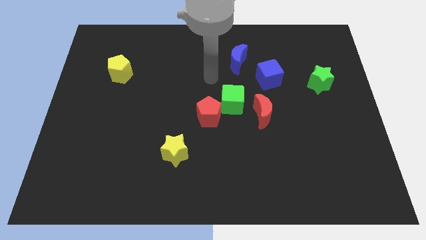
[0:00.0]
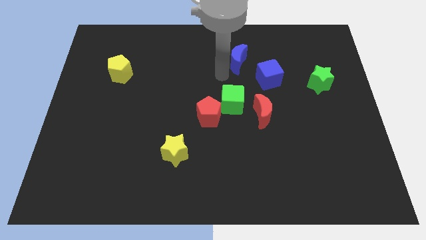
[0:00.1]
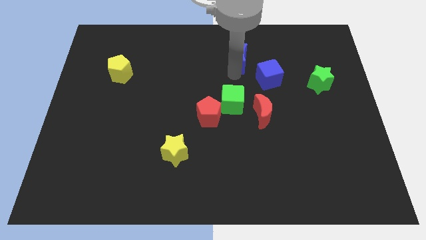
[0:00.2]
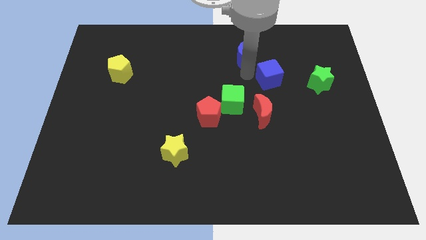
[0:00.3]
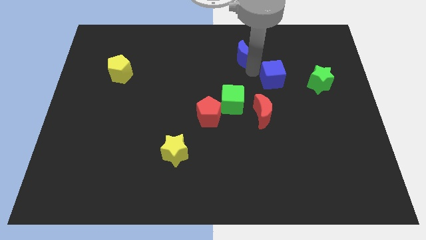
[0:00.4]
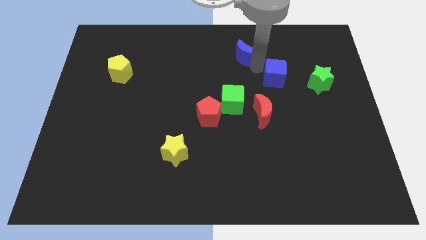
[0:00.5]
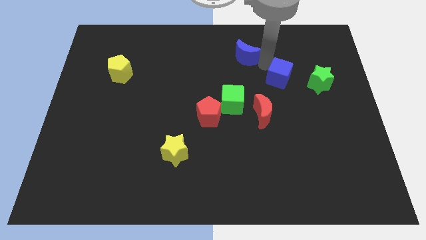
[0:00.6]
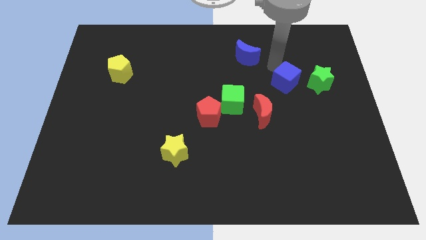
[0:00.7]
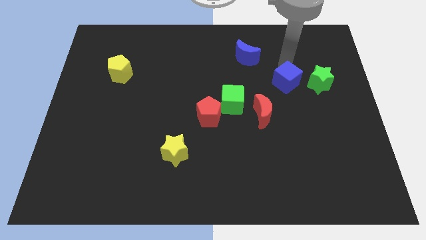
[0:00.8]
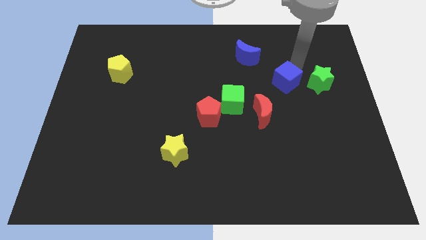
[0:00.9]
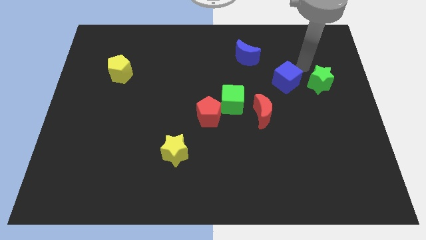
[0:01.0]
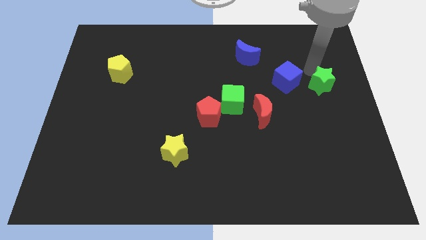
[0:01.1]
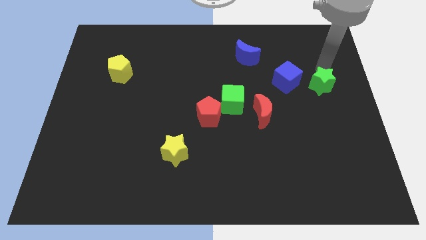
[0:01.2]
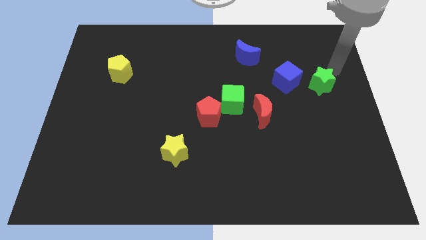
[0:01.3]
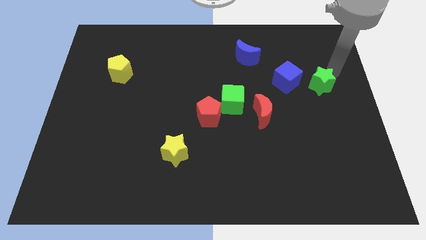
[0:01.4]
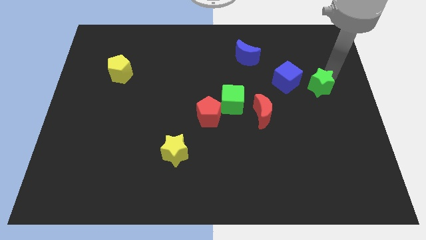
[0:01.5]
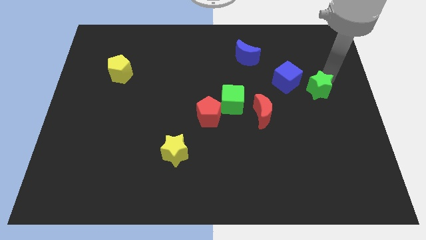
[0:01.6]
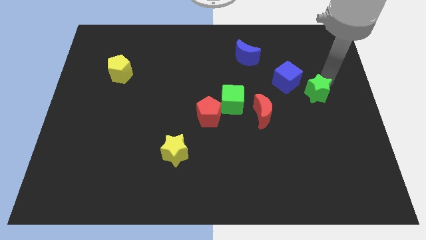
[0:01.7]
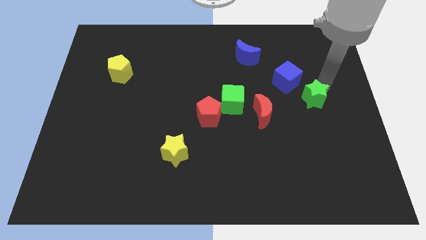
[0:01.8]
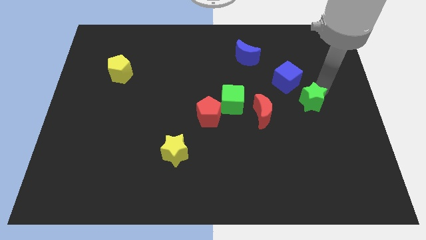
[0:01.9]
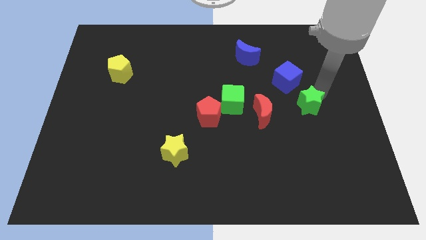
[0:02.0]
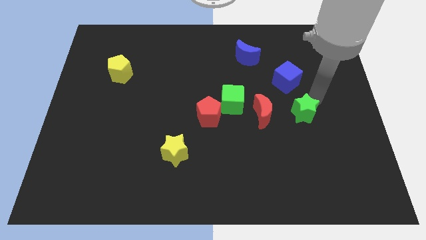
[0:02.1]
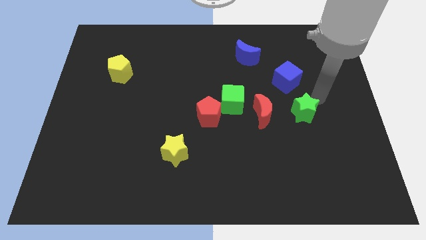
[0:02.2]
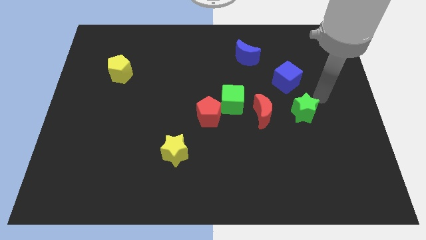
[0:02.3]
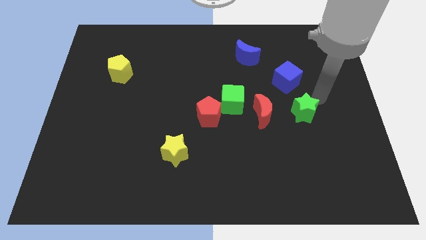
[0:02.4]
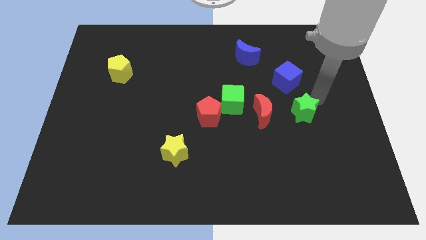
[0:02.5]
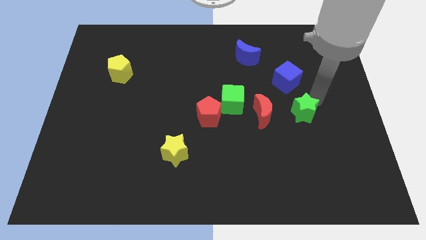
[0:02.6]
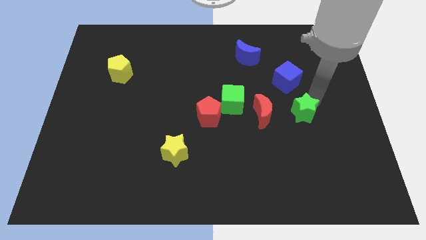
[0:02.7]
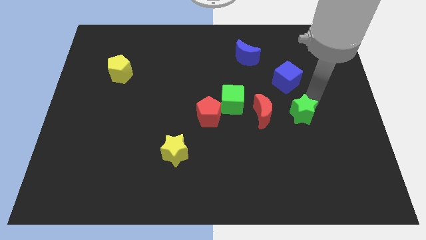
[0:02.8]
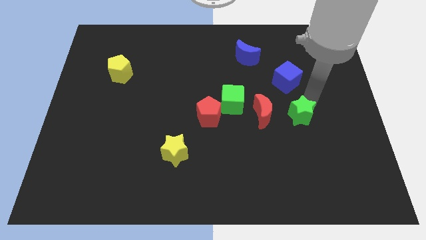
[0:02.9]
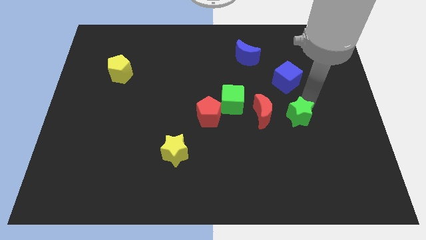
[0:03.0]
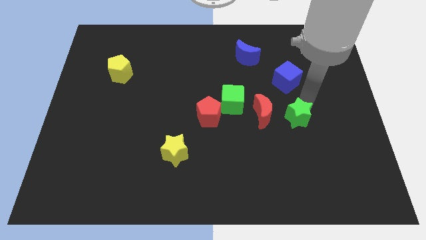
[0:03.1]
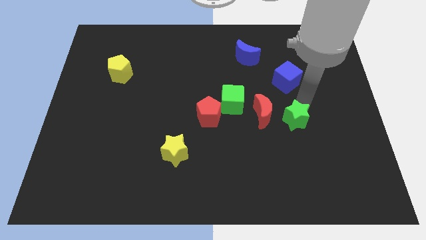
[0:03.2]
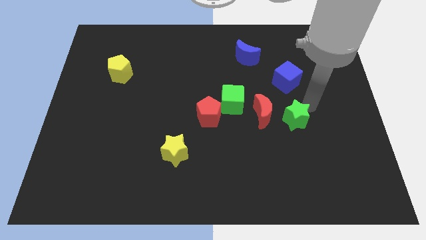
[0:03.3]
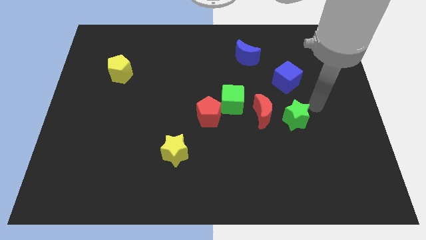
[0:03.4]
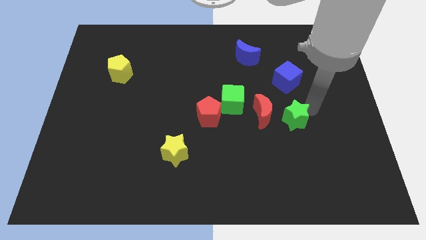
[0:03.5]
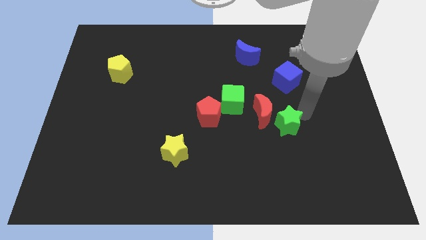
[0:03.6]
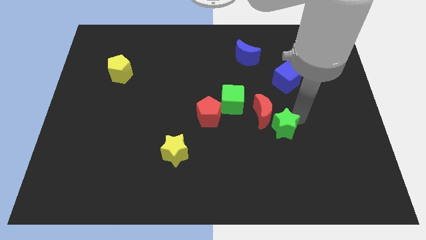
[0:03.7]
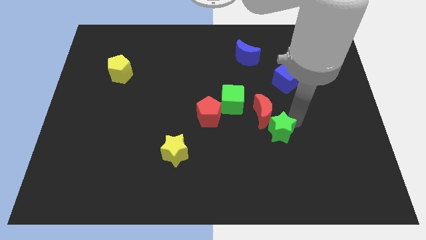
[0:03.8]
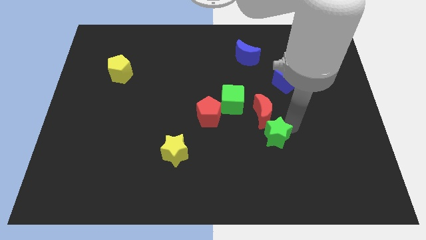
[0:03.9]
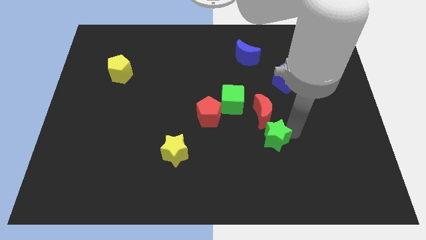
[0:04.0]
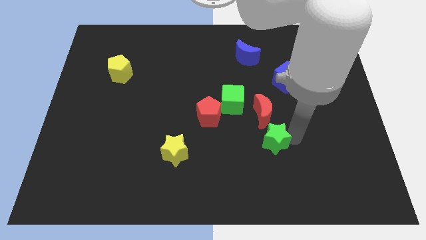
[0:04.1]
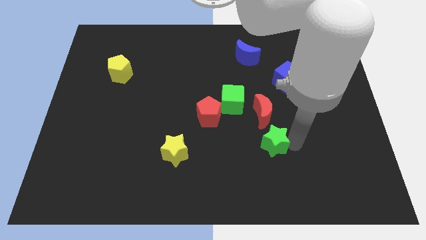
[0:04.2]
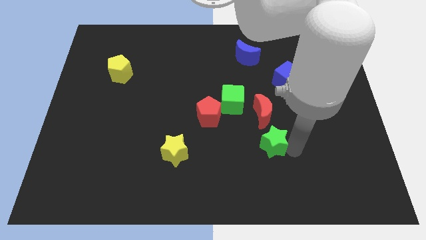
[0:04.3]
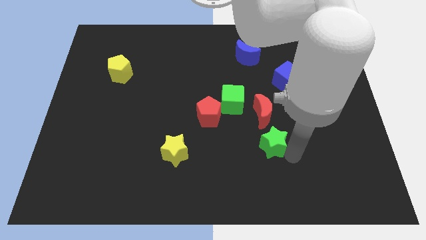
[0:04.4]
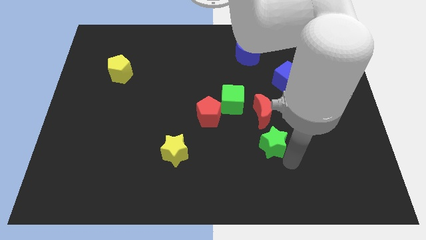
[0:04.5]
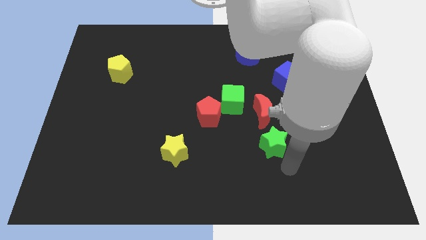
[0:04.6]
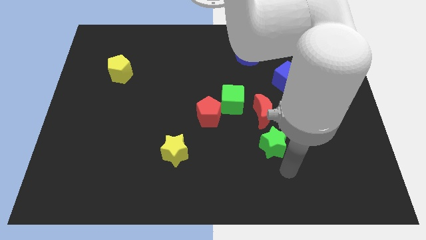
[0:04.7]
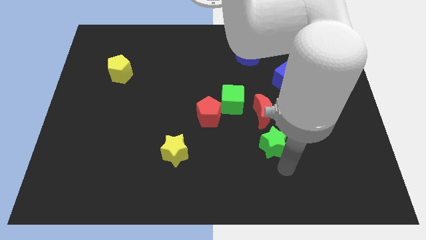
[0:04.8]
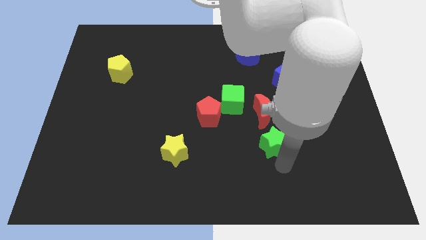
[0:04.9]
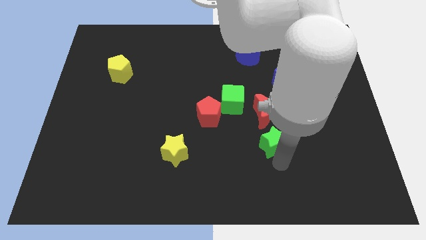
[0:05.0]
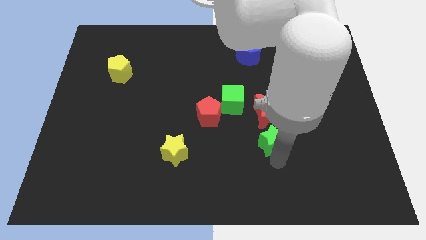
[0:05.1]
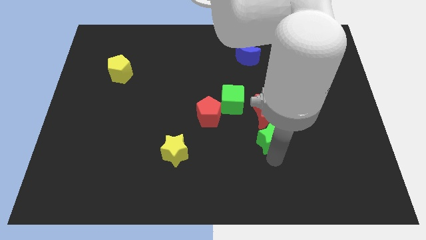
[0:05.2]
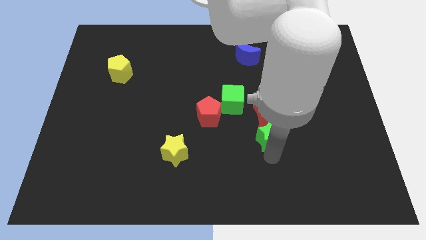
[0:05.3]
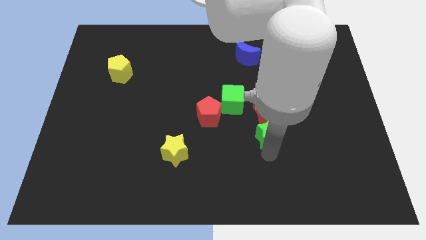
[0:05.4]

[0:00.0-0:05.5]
slide the green star to the bottom right side of the green cube

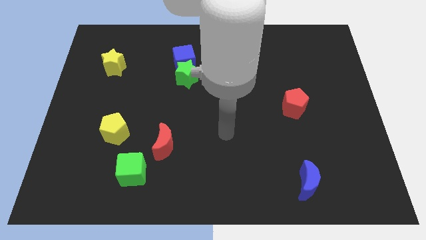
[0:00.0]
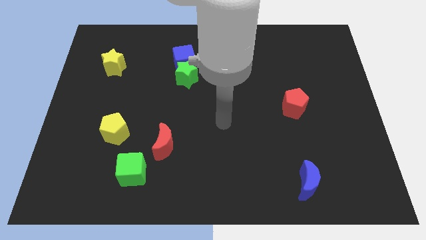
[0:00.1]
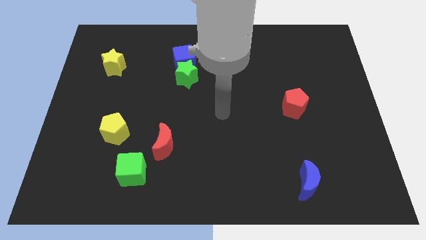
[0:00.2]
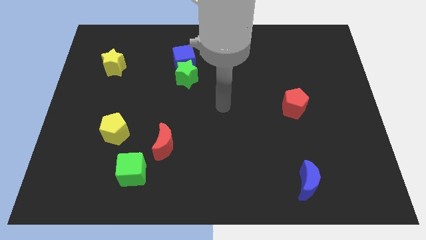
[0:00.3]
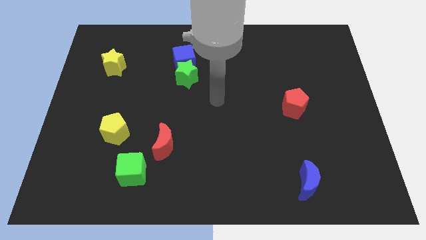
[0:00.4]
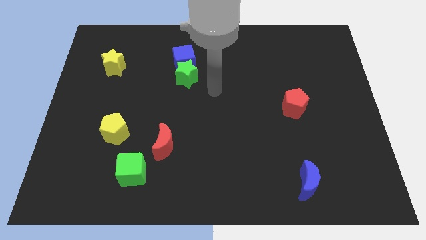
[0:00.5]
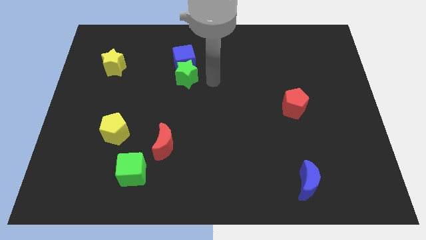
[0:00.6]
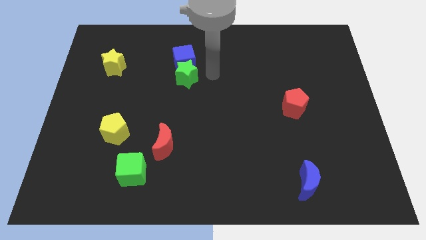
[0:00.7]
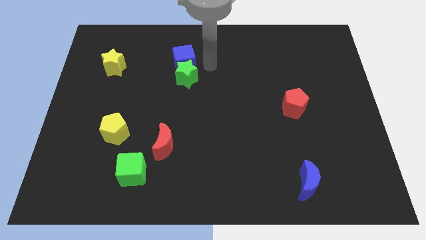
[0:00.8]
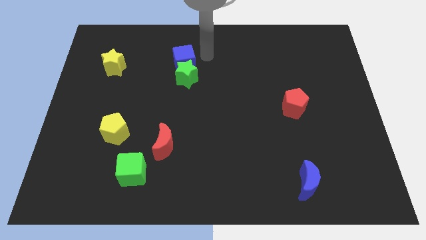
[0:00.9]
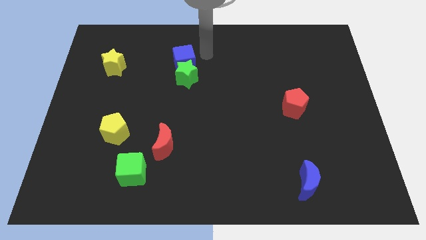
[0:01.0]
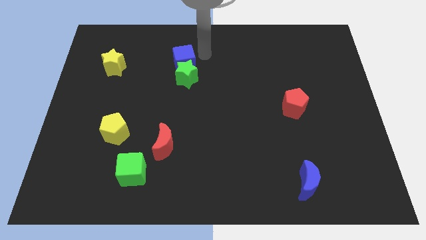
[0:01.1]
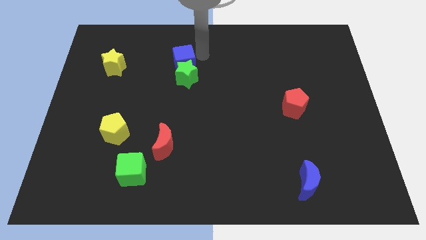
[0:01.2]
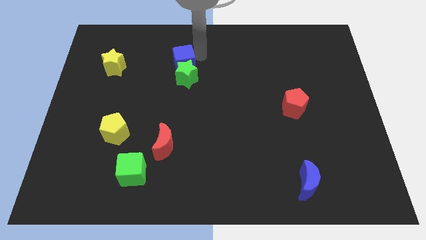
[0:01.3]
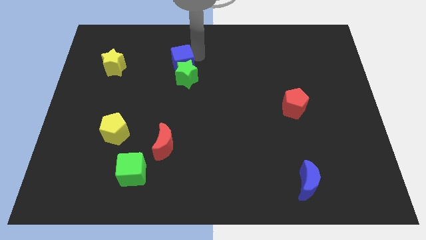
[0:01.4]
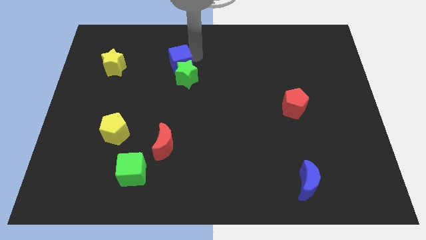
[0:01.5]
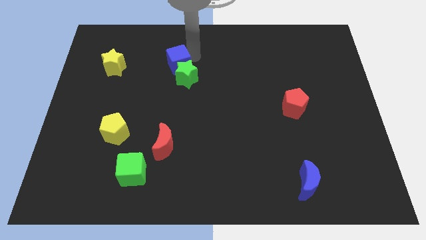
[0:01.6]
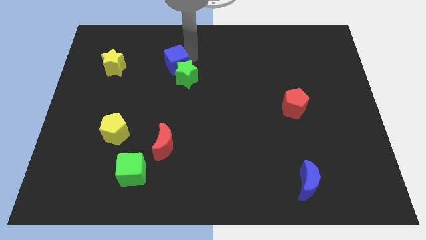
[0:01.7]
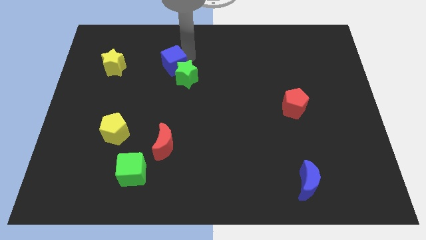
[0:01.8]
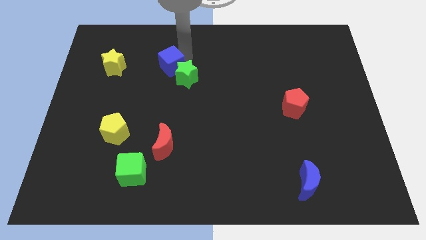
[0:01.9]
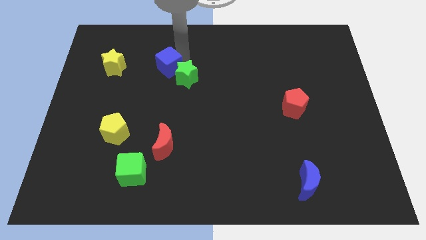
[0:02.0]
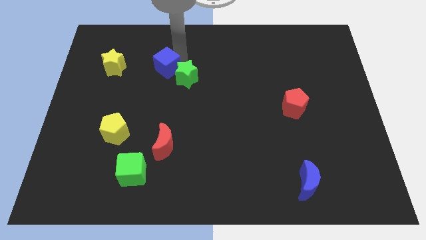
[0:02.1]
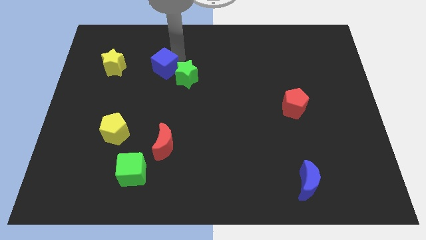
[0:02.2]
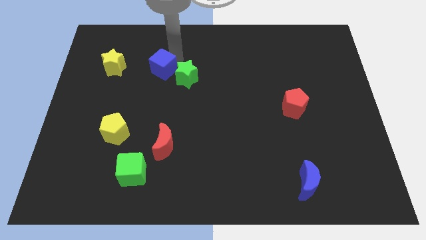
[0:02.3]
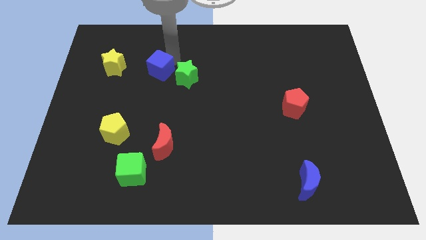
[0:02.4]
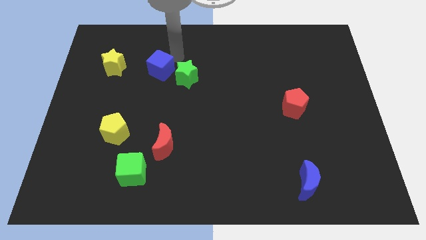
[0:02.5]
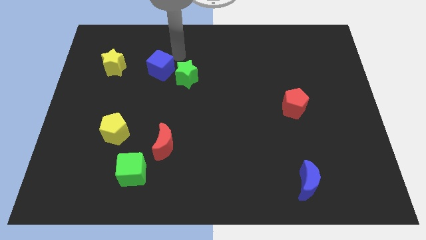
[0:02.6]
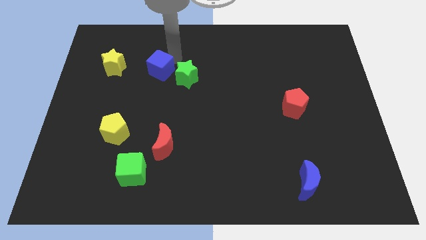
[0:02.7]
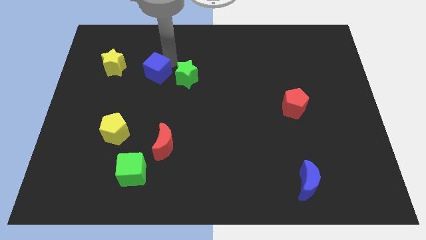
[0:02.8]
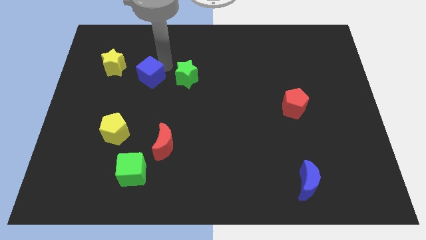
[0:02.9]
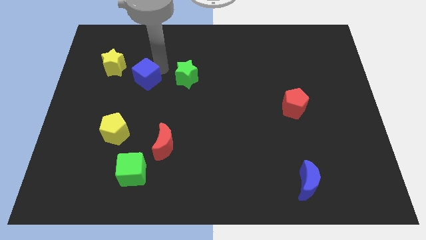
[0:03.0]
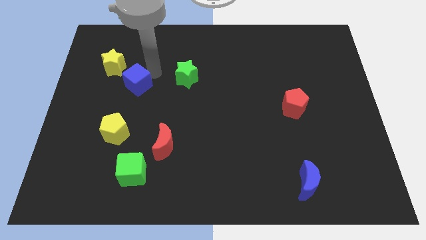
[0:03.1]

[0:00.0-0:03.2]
push the blue cube above the yellow pentagon
